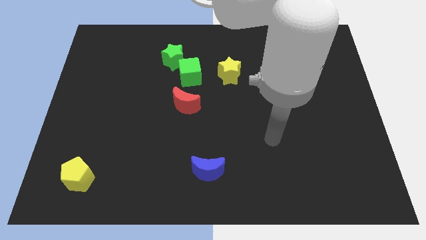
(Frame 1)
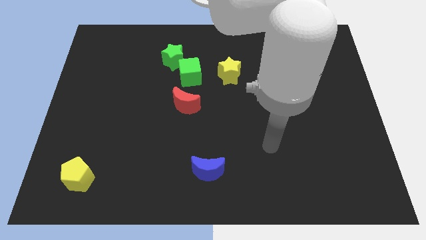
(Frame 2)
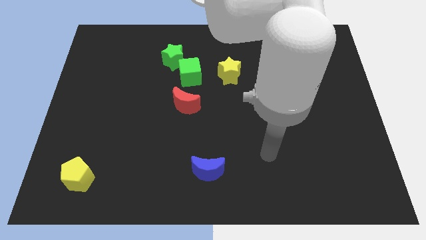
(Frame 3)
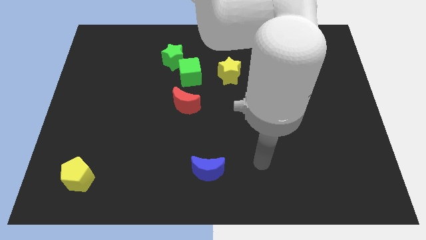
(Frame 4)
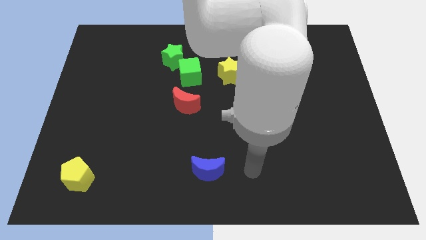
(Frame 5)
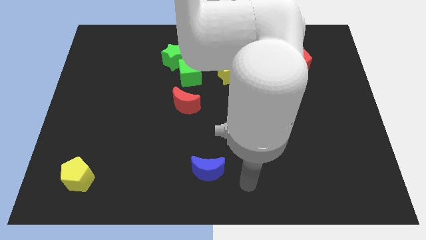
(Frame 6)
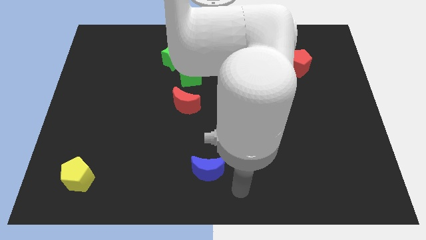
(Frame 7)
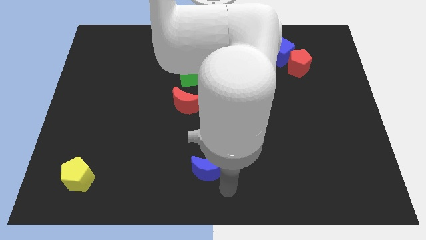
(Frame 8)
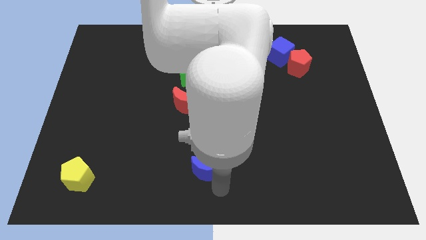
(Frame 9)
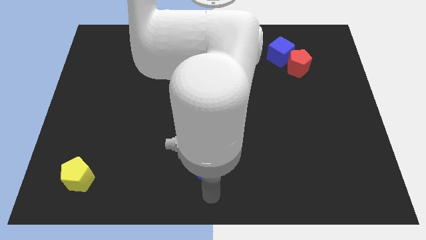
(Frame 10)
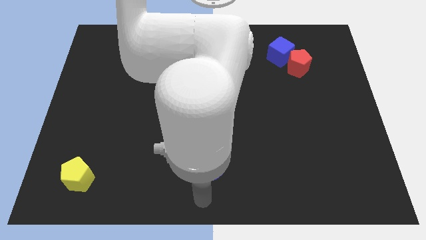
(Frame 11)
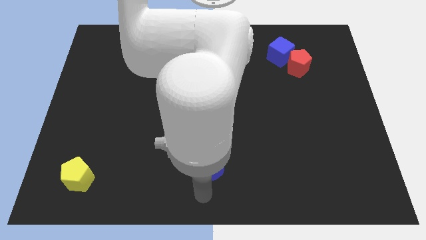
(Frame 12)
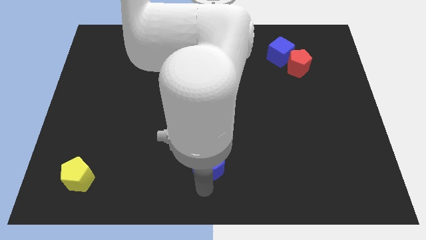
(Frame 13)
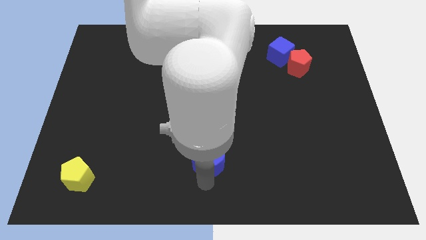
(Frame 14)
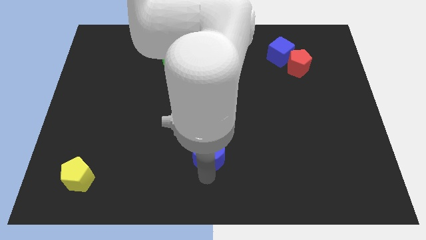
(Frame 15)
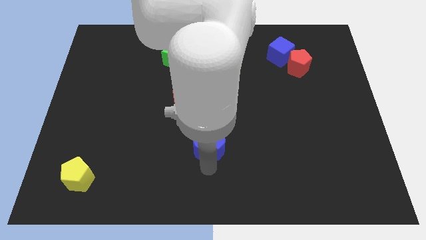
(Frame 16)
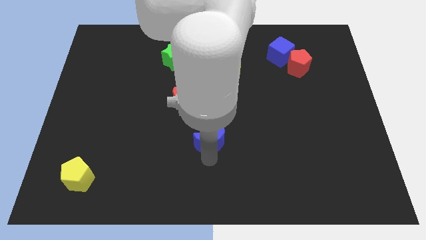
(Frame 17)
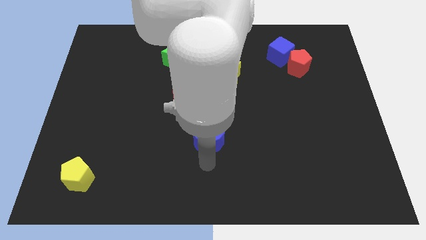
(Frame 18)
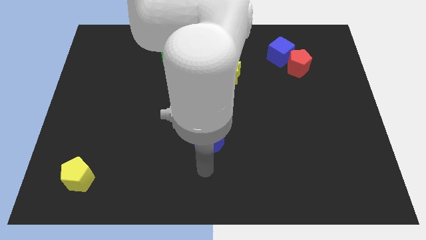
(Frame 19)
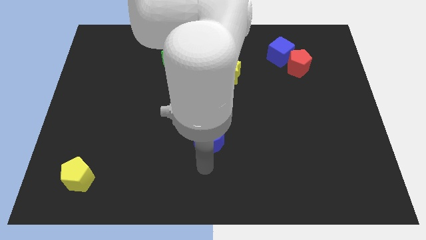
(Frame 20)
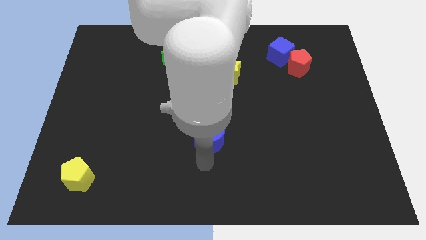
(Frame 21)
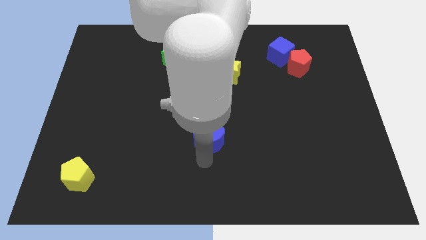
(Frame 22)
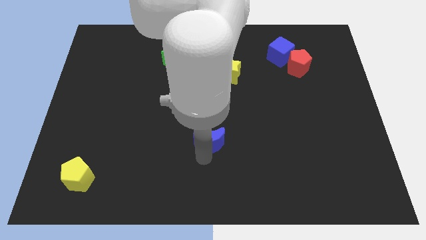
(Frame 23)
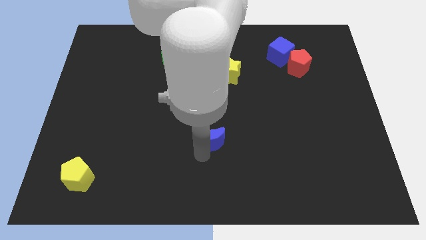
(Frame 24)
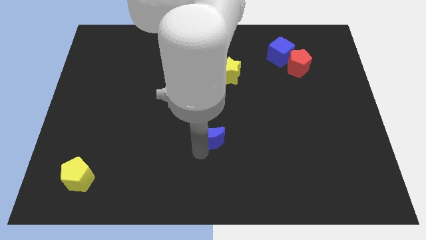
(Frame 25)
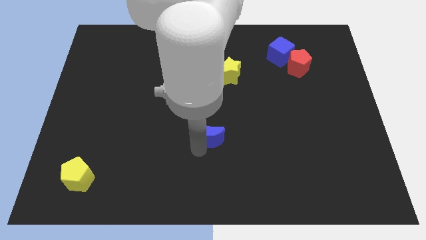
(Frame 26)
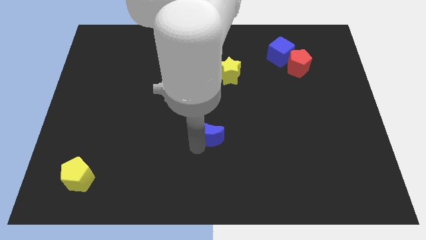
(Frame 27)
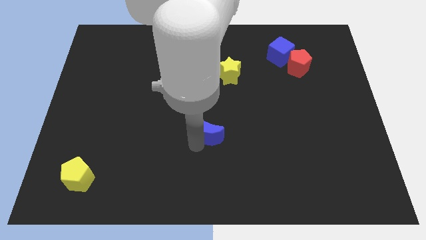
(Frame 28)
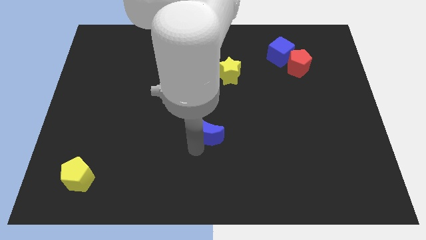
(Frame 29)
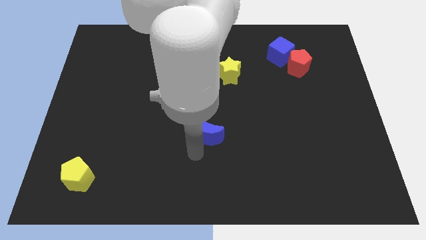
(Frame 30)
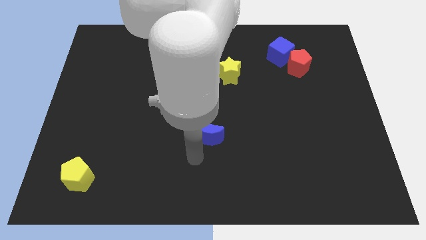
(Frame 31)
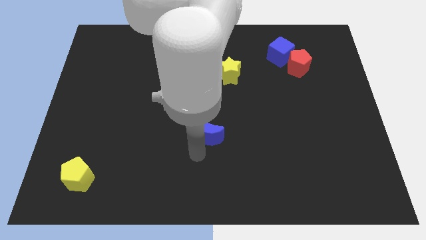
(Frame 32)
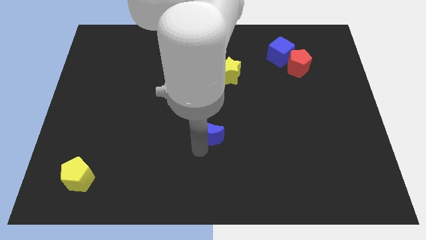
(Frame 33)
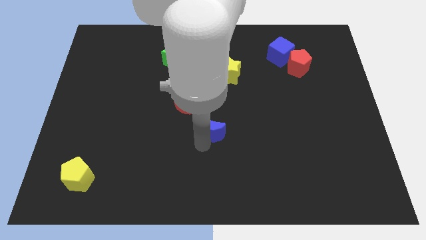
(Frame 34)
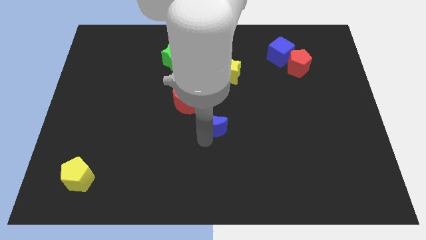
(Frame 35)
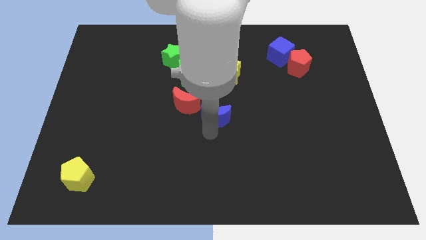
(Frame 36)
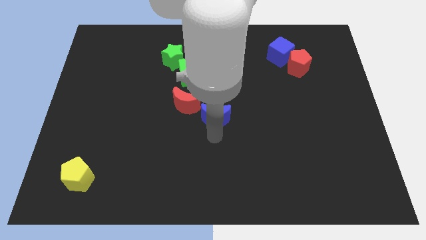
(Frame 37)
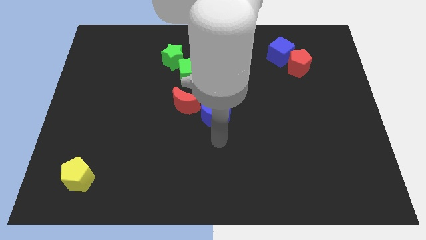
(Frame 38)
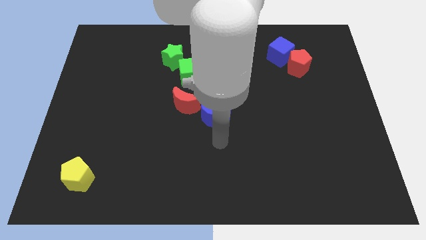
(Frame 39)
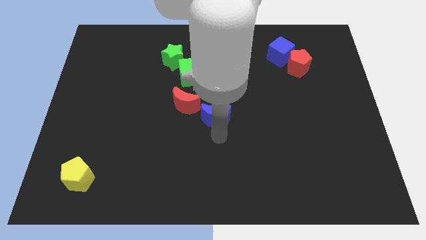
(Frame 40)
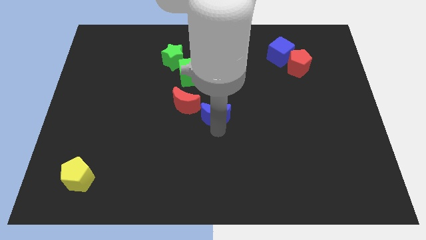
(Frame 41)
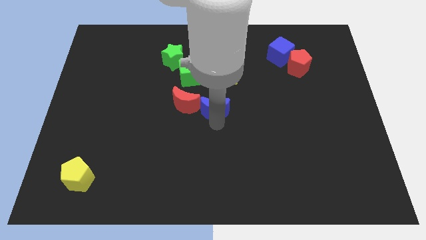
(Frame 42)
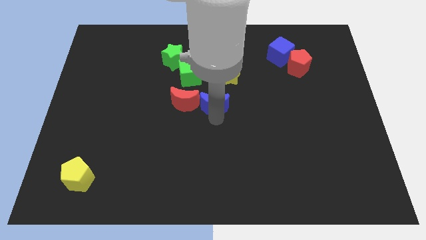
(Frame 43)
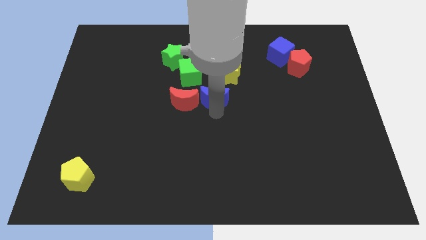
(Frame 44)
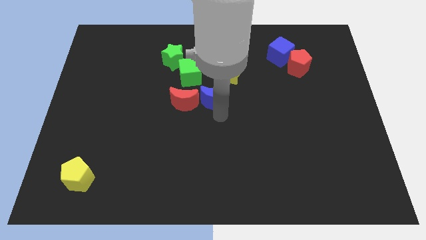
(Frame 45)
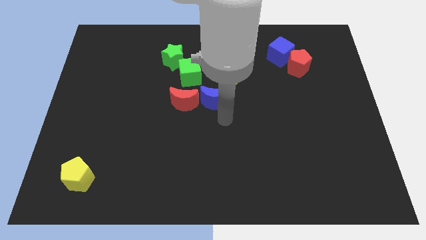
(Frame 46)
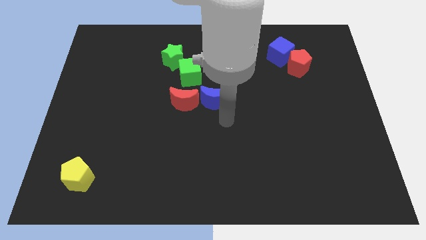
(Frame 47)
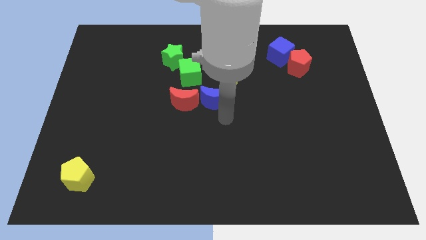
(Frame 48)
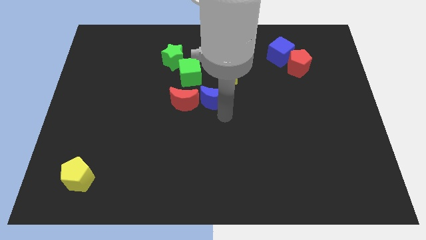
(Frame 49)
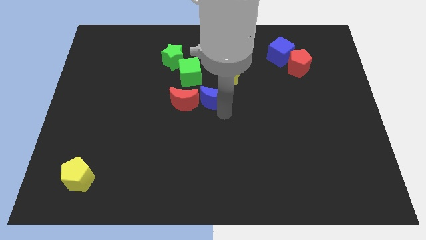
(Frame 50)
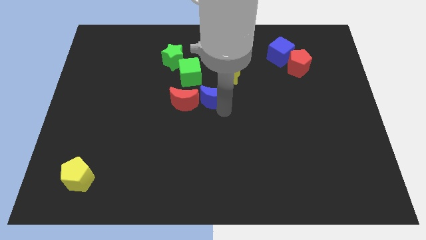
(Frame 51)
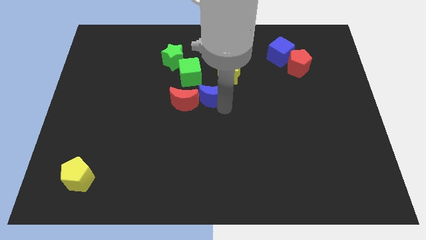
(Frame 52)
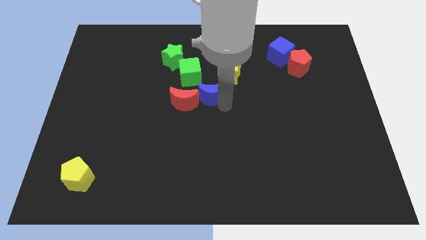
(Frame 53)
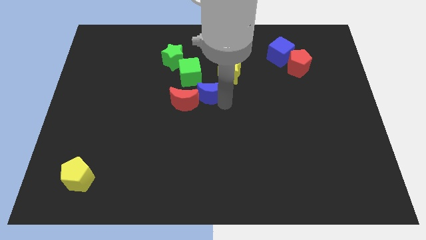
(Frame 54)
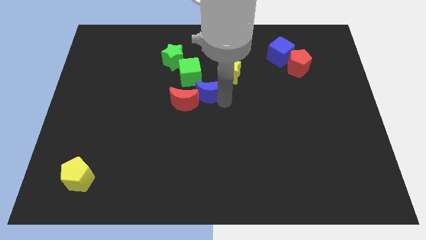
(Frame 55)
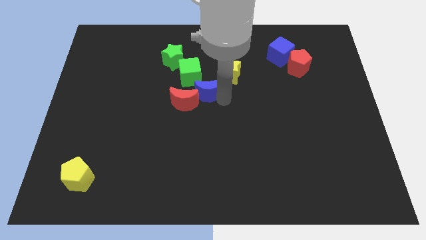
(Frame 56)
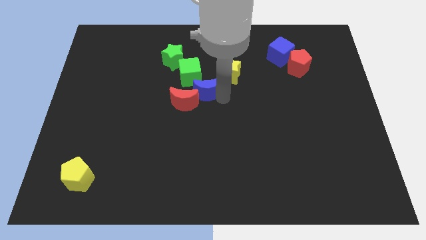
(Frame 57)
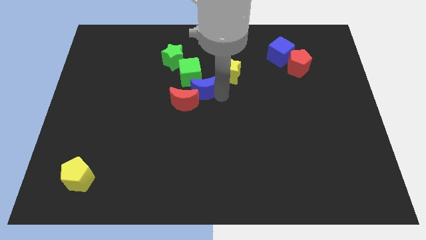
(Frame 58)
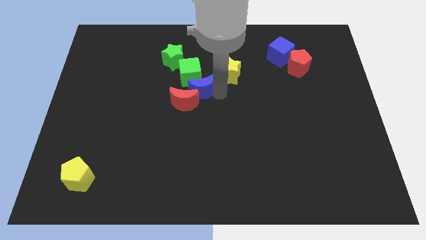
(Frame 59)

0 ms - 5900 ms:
push the blue moon to the green cube

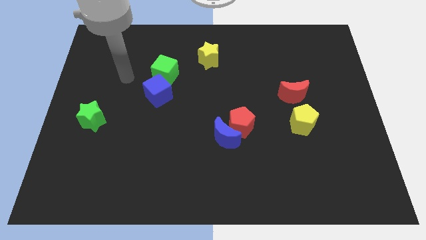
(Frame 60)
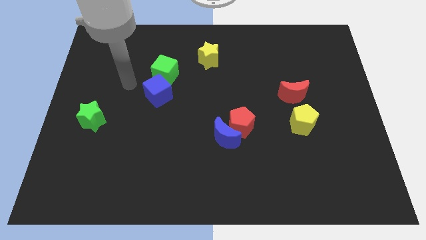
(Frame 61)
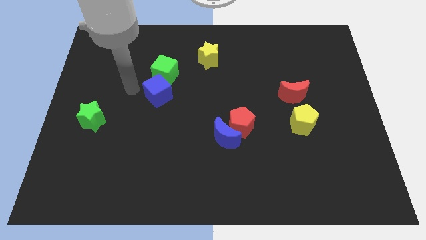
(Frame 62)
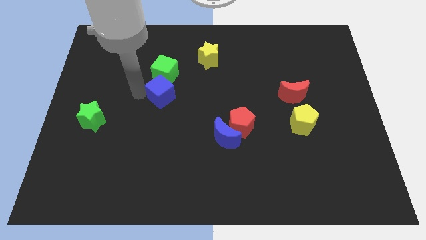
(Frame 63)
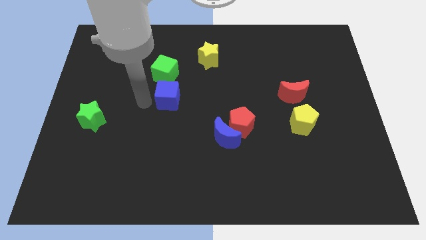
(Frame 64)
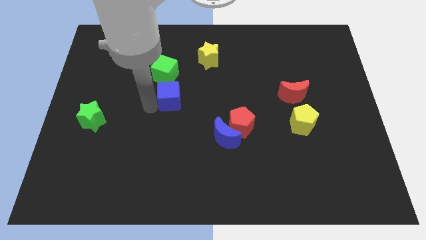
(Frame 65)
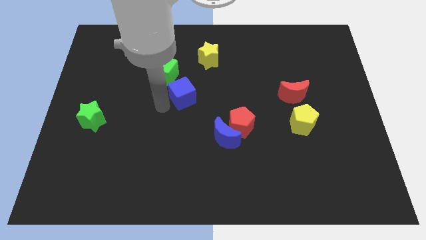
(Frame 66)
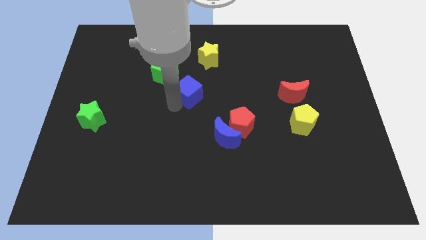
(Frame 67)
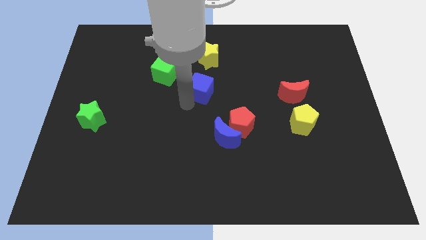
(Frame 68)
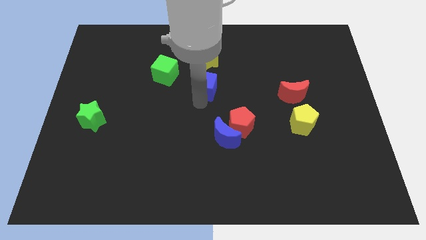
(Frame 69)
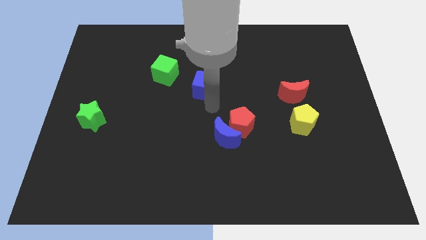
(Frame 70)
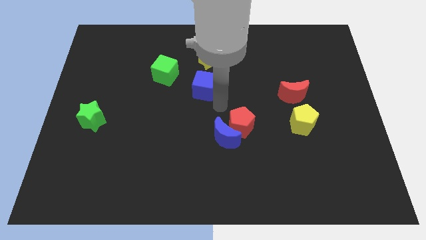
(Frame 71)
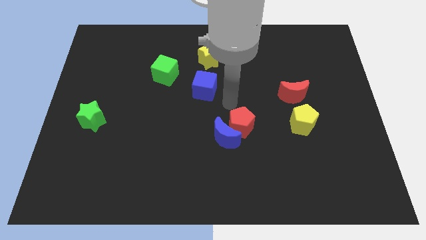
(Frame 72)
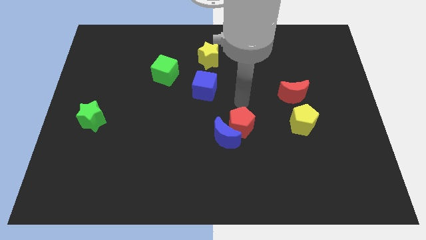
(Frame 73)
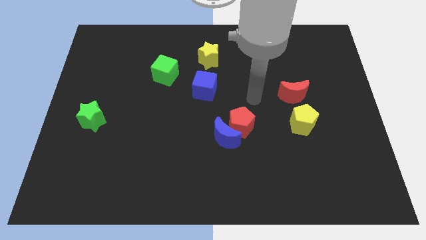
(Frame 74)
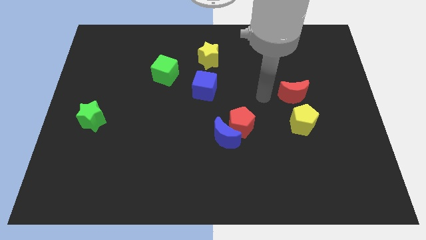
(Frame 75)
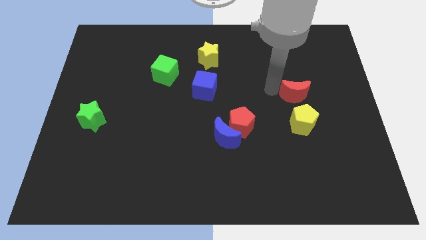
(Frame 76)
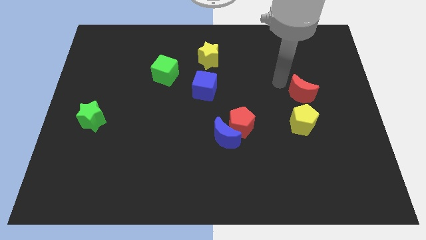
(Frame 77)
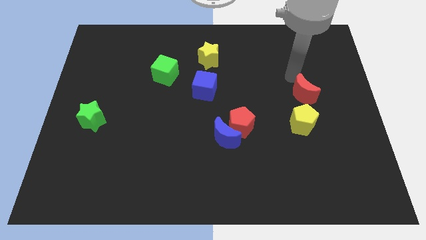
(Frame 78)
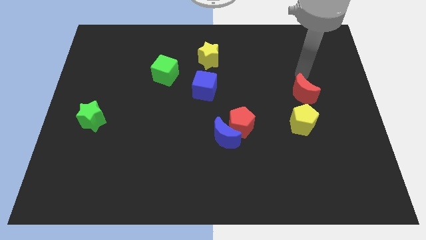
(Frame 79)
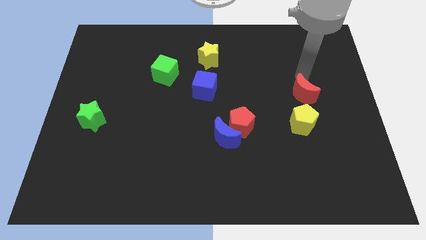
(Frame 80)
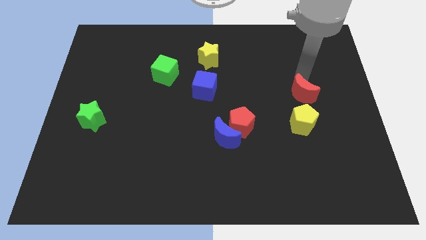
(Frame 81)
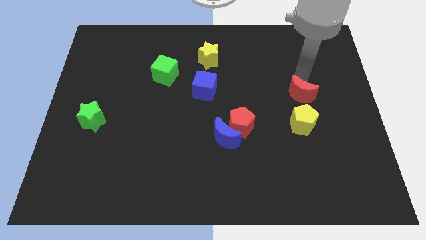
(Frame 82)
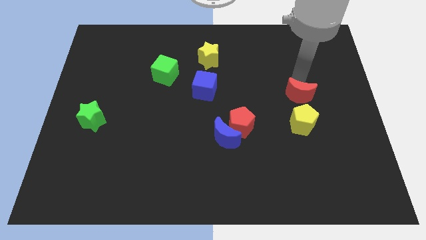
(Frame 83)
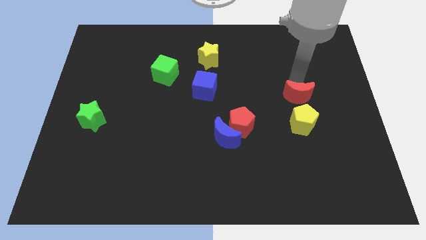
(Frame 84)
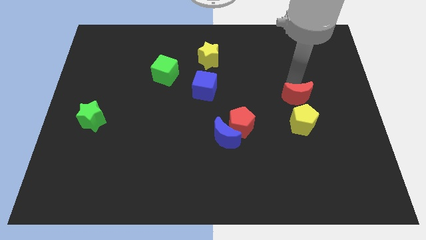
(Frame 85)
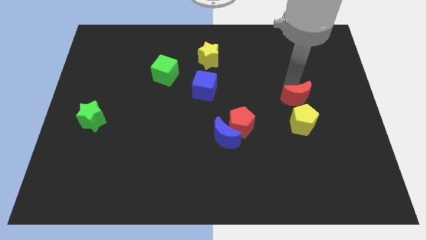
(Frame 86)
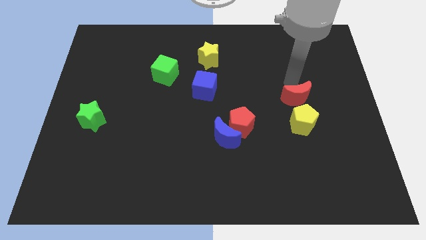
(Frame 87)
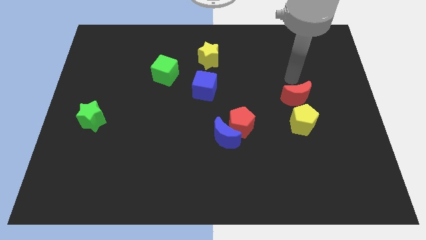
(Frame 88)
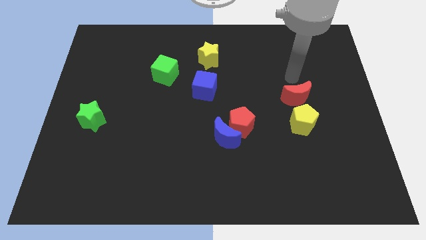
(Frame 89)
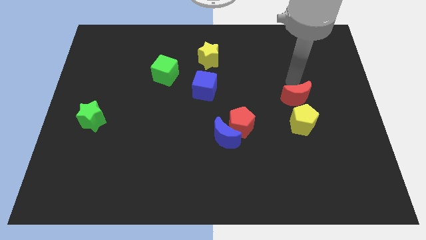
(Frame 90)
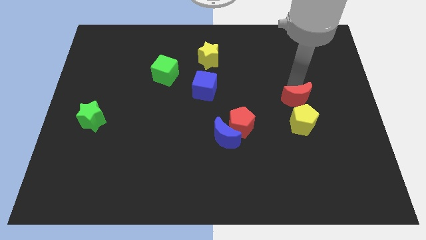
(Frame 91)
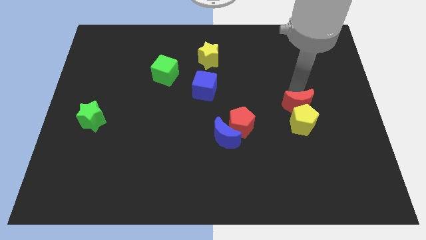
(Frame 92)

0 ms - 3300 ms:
put the red moon next to the yellow pentagon
